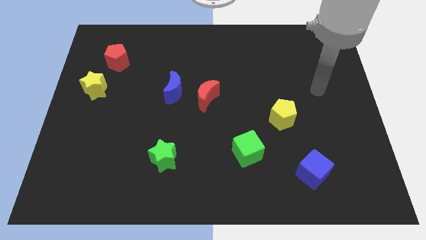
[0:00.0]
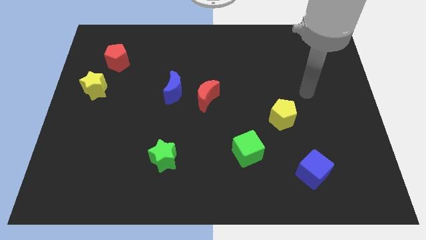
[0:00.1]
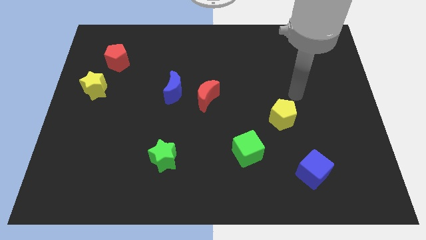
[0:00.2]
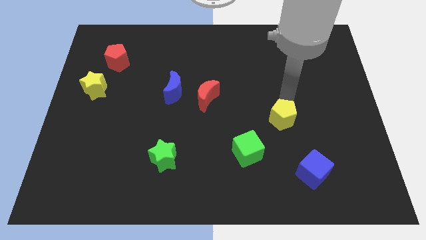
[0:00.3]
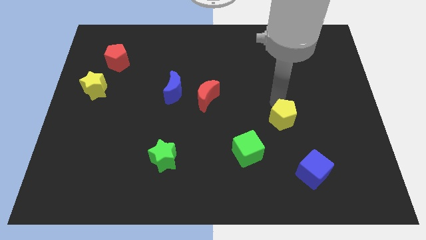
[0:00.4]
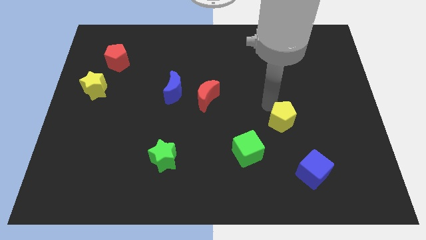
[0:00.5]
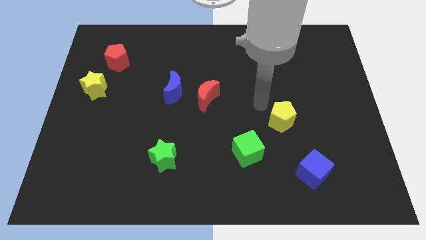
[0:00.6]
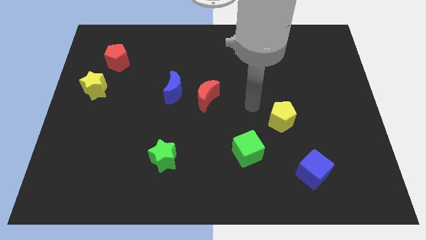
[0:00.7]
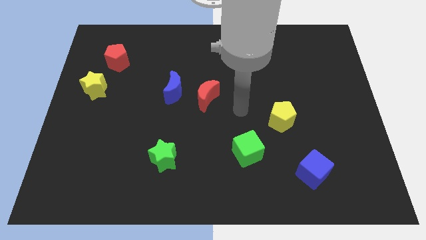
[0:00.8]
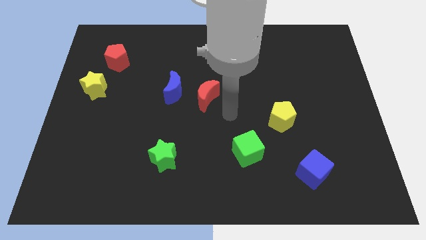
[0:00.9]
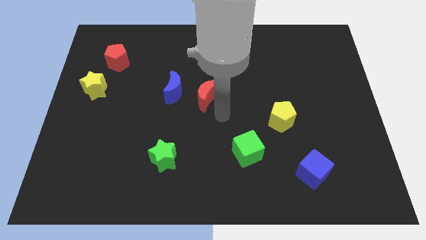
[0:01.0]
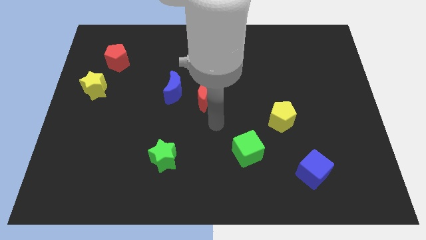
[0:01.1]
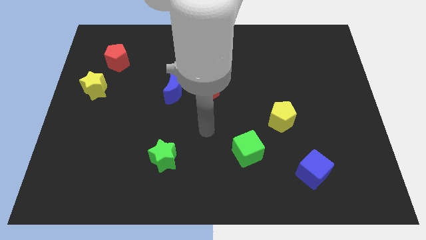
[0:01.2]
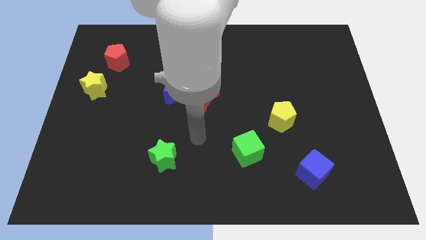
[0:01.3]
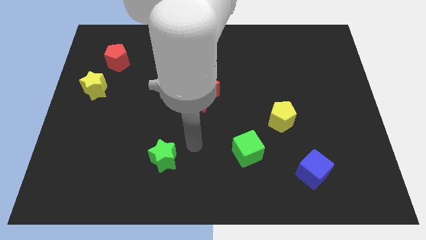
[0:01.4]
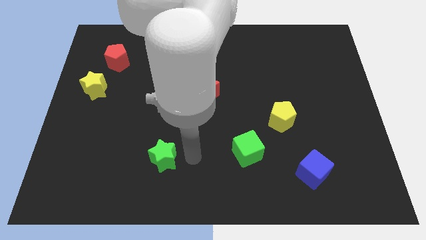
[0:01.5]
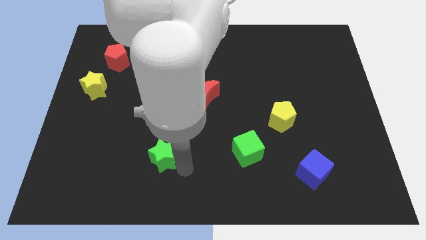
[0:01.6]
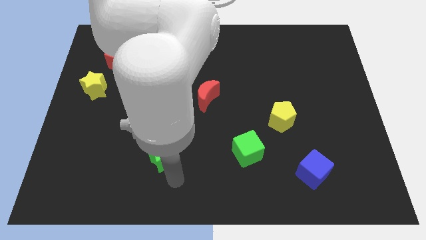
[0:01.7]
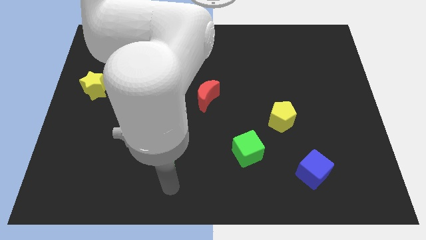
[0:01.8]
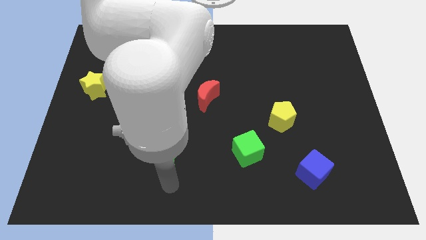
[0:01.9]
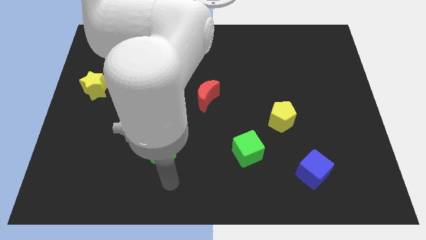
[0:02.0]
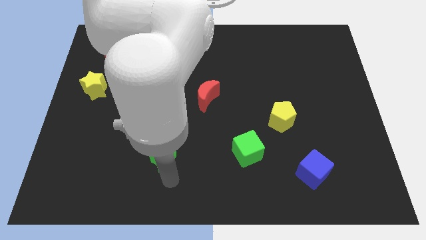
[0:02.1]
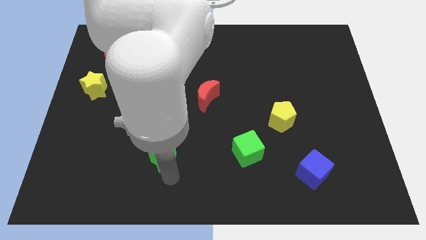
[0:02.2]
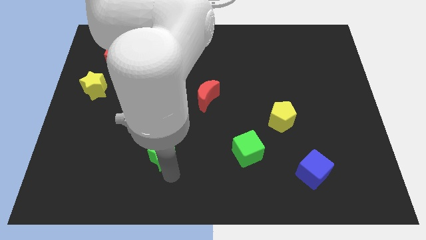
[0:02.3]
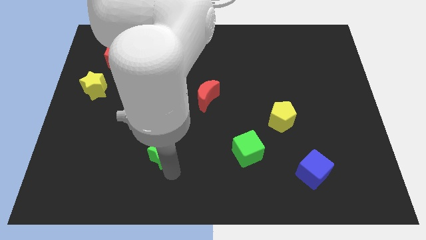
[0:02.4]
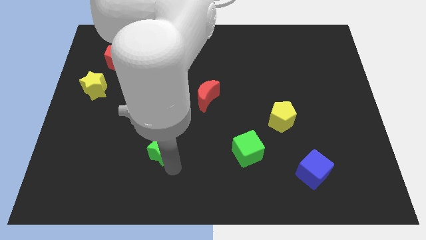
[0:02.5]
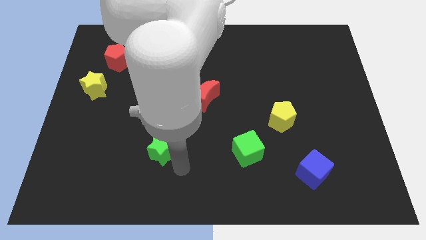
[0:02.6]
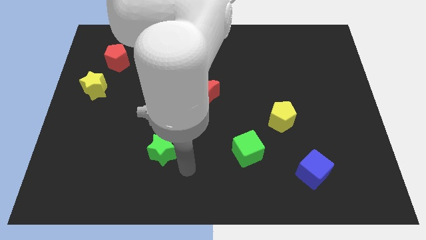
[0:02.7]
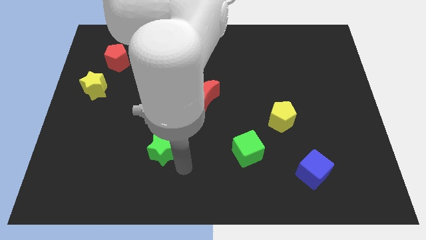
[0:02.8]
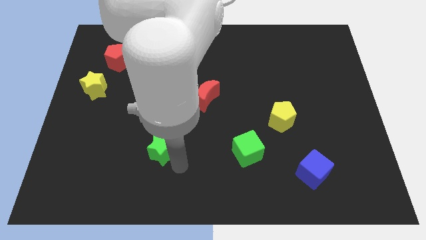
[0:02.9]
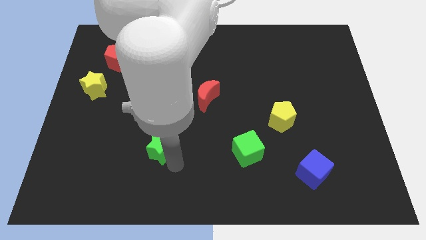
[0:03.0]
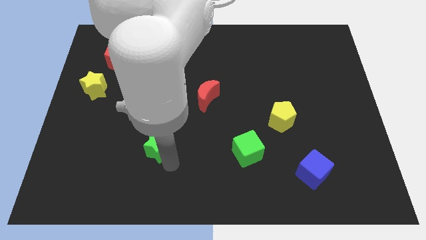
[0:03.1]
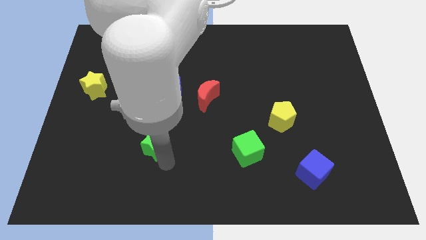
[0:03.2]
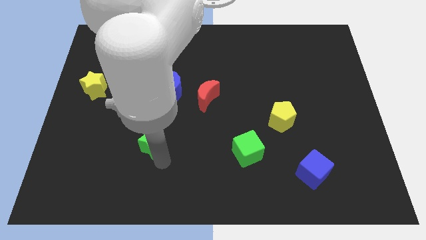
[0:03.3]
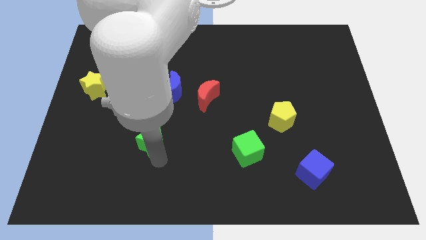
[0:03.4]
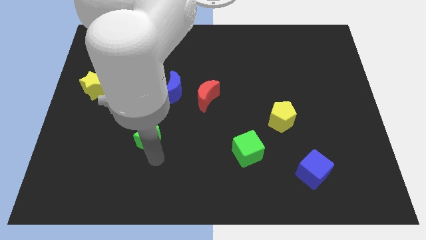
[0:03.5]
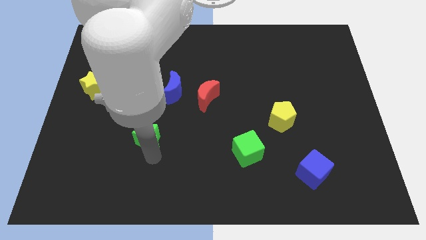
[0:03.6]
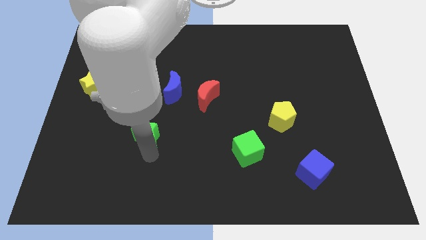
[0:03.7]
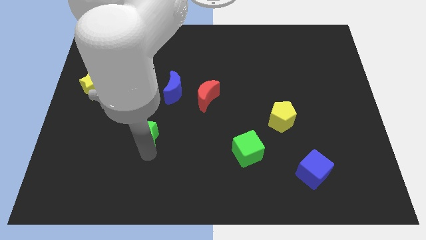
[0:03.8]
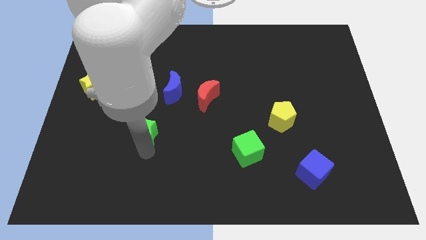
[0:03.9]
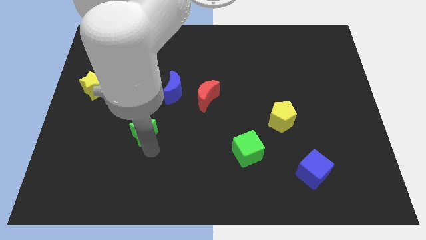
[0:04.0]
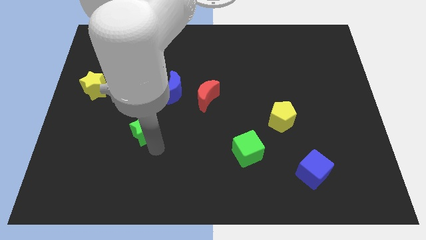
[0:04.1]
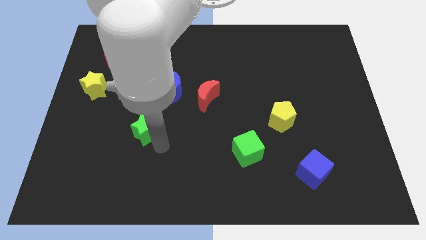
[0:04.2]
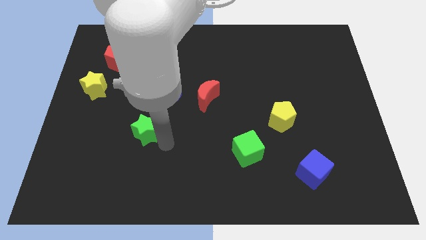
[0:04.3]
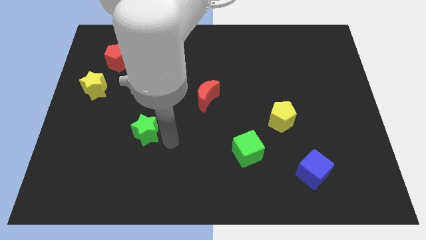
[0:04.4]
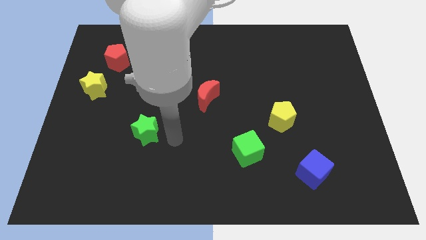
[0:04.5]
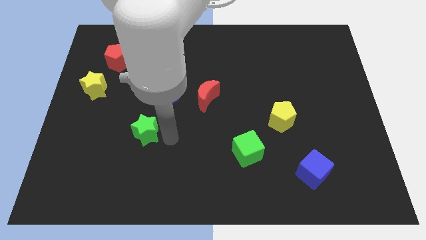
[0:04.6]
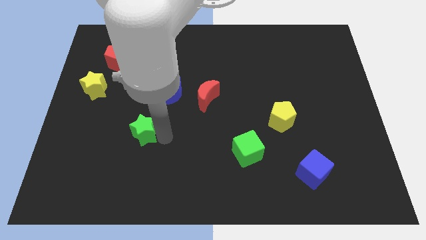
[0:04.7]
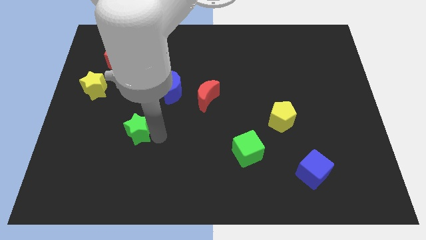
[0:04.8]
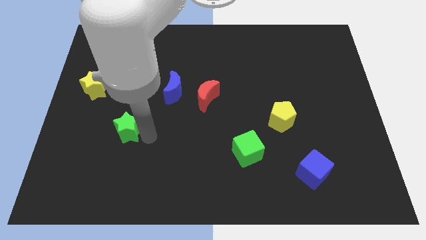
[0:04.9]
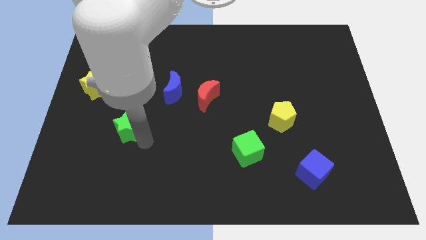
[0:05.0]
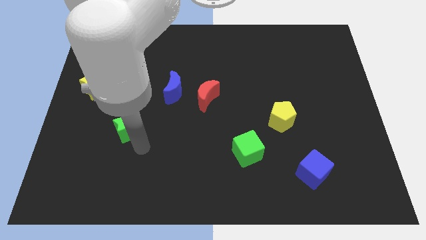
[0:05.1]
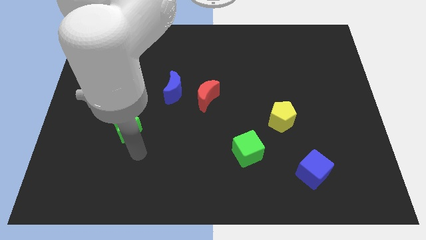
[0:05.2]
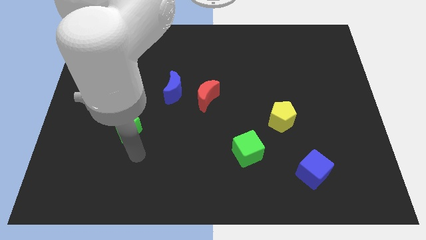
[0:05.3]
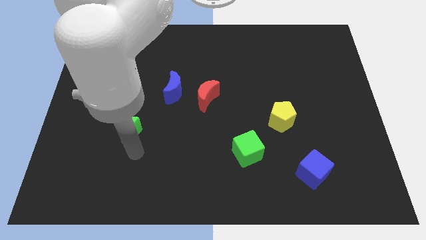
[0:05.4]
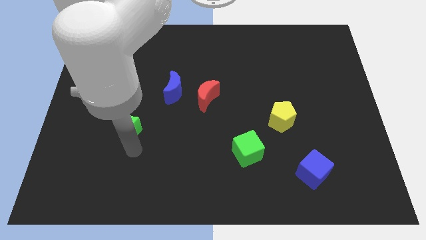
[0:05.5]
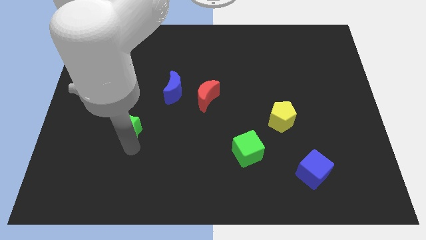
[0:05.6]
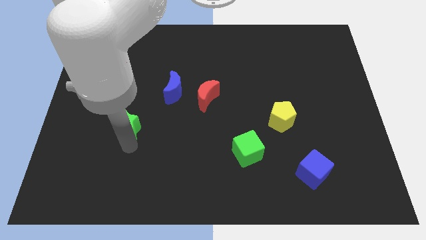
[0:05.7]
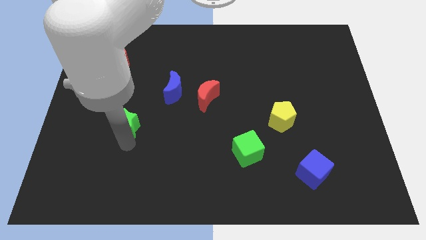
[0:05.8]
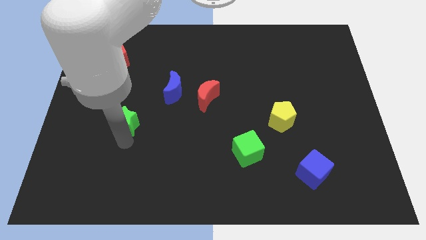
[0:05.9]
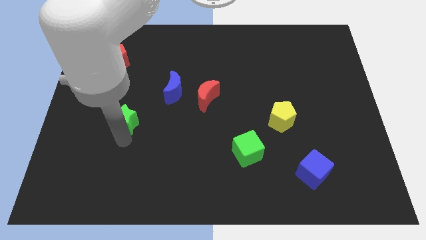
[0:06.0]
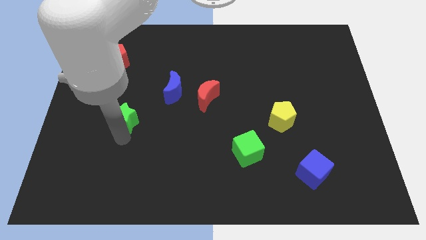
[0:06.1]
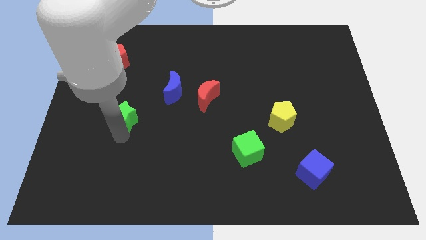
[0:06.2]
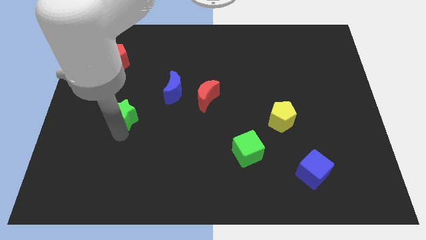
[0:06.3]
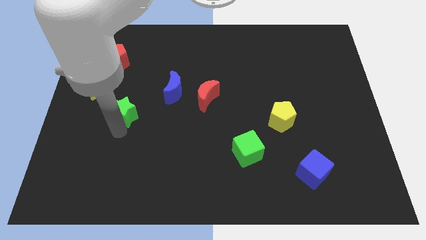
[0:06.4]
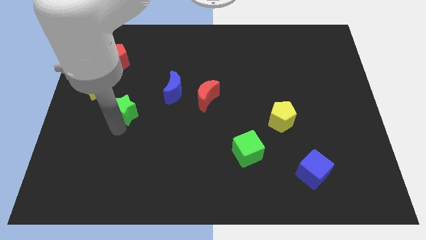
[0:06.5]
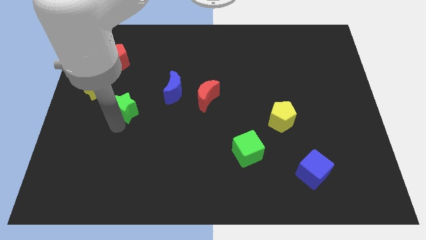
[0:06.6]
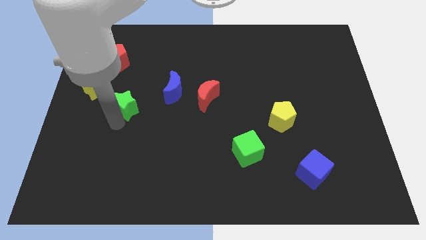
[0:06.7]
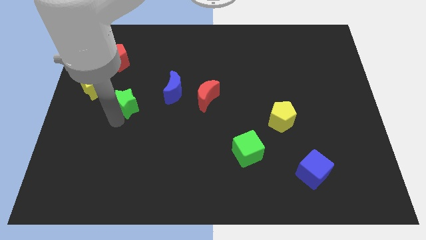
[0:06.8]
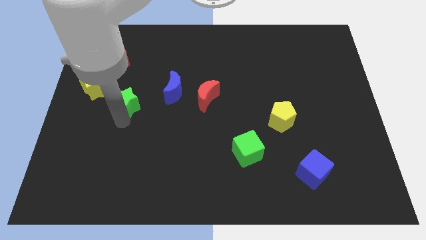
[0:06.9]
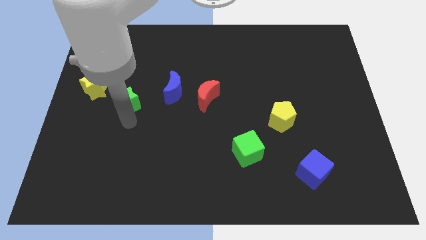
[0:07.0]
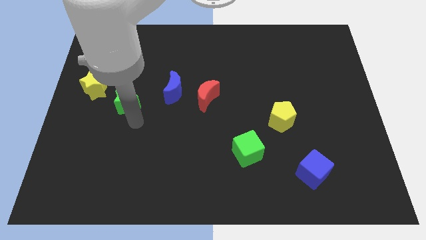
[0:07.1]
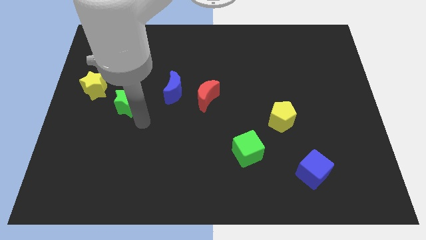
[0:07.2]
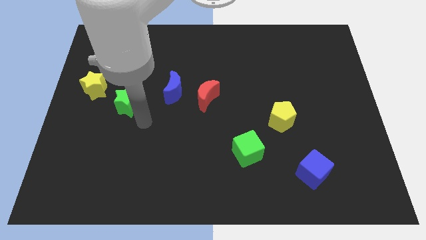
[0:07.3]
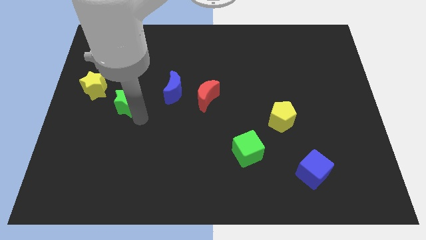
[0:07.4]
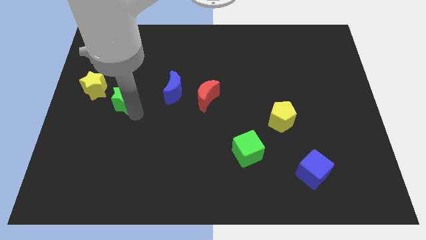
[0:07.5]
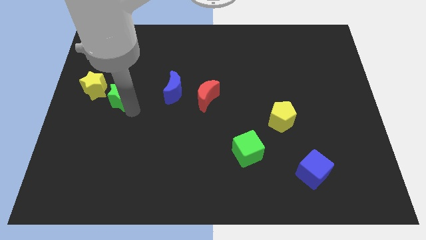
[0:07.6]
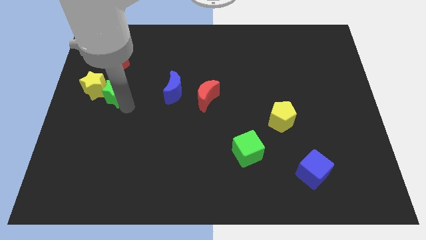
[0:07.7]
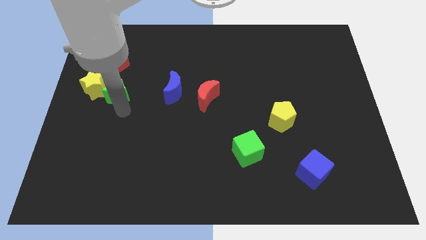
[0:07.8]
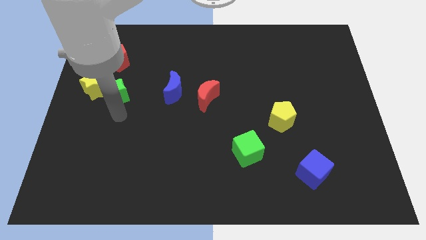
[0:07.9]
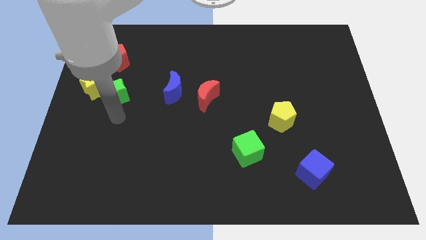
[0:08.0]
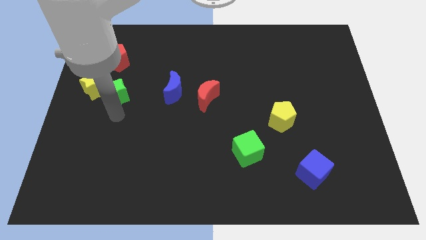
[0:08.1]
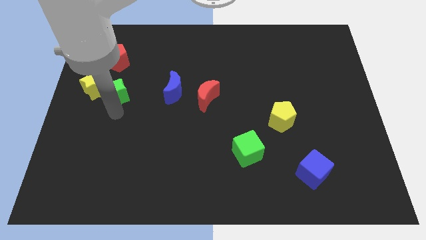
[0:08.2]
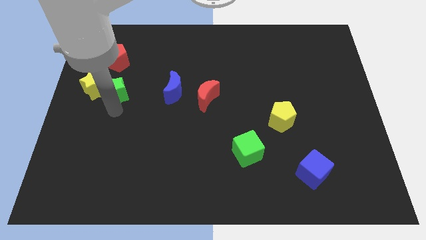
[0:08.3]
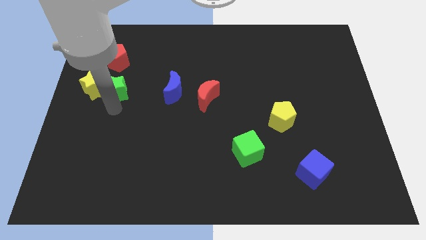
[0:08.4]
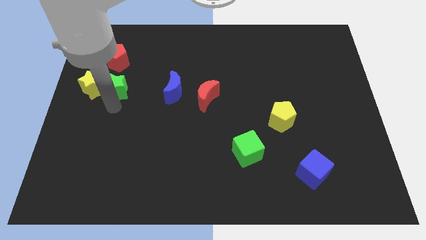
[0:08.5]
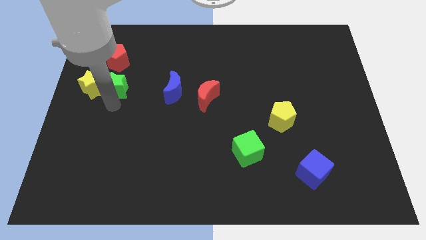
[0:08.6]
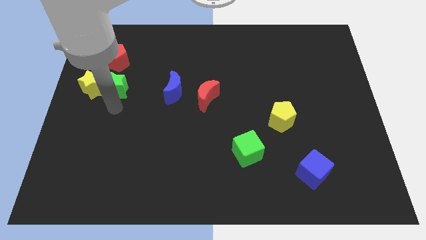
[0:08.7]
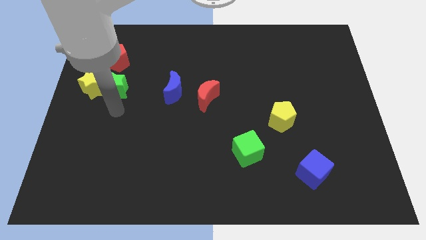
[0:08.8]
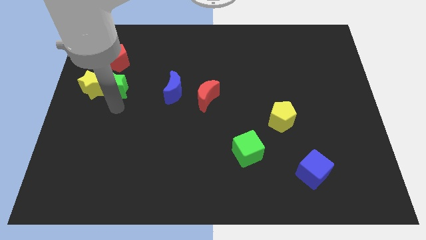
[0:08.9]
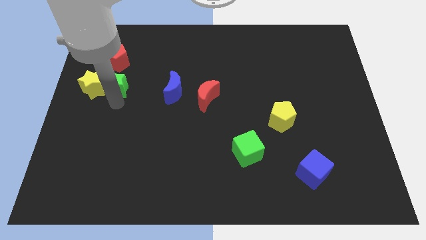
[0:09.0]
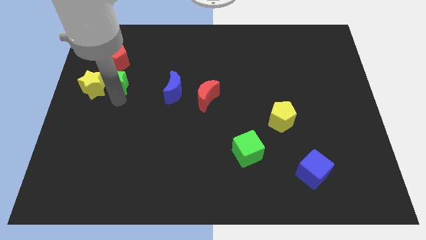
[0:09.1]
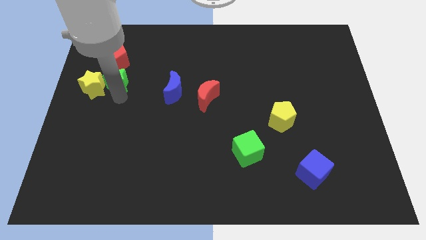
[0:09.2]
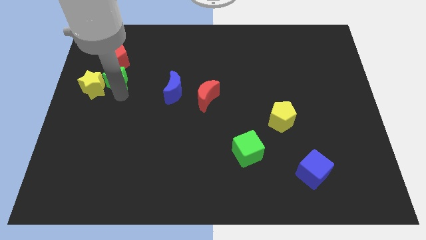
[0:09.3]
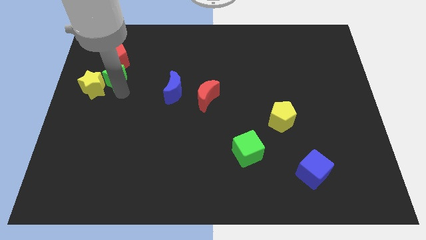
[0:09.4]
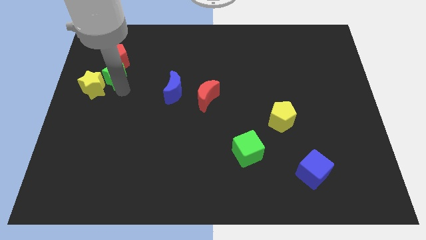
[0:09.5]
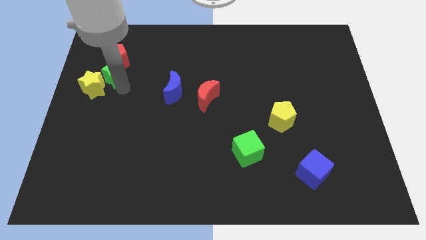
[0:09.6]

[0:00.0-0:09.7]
push the green star to the top of the yellow star
